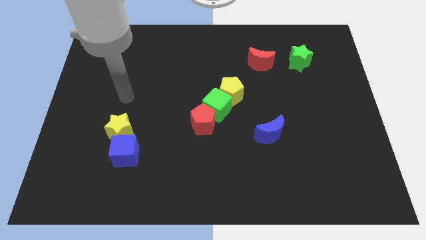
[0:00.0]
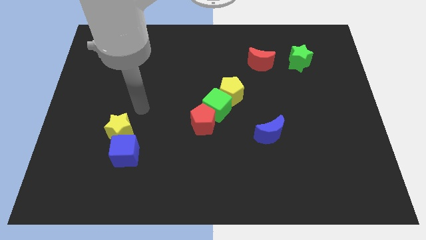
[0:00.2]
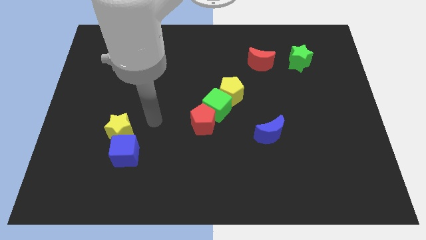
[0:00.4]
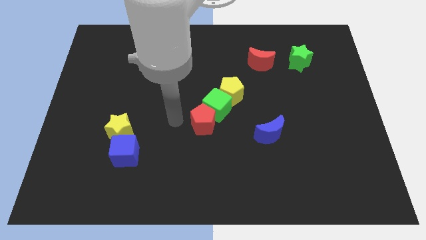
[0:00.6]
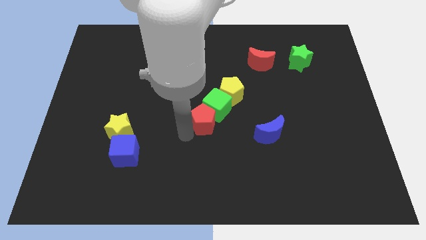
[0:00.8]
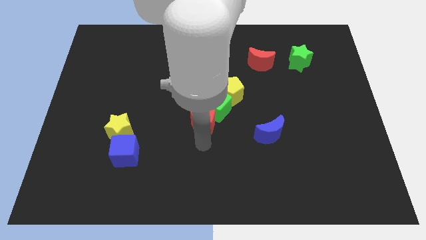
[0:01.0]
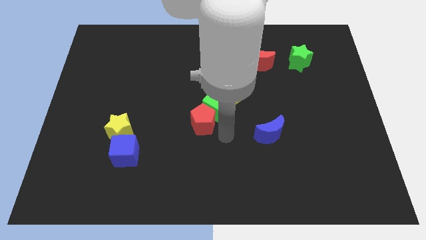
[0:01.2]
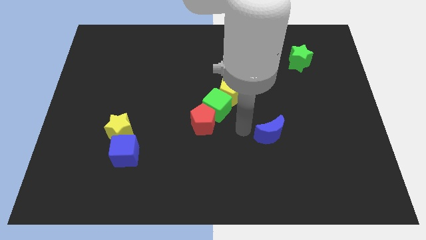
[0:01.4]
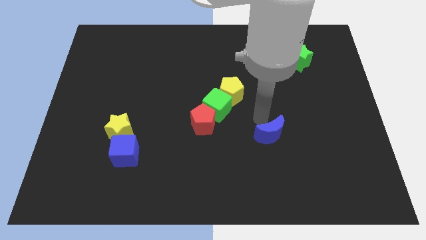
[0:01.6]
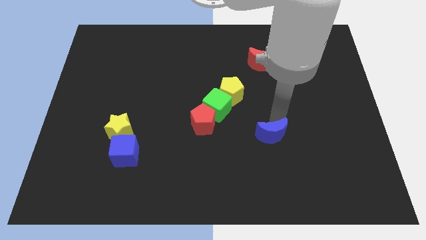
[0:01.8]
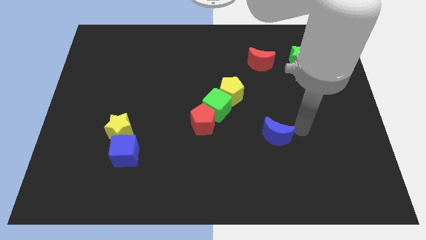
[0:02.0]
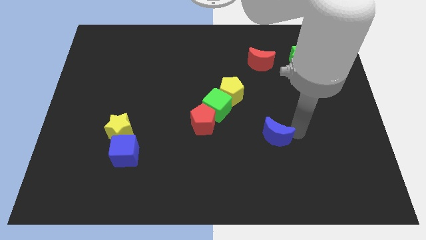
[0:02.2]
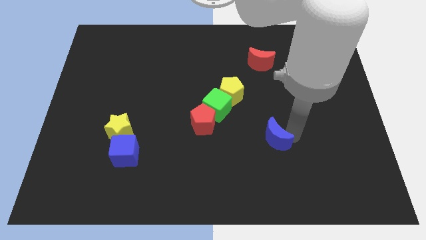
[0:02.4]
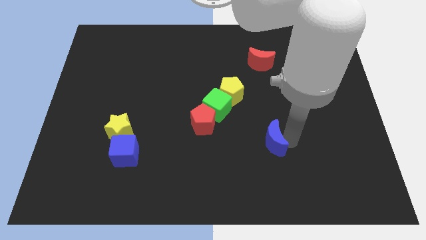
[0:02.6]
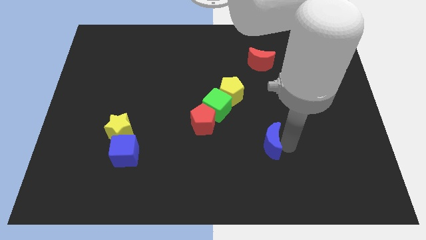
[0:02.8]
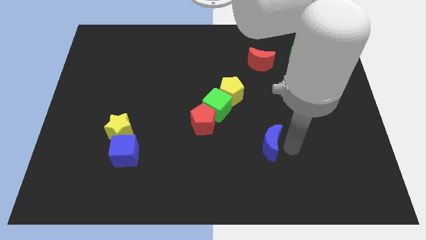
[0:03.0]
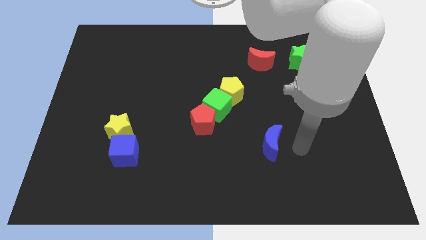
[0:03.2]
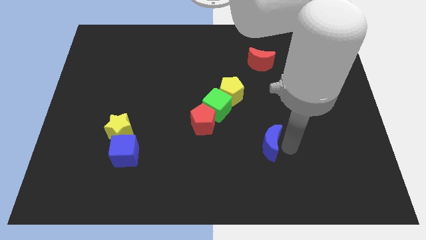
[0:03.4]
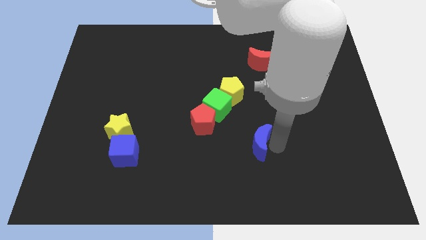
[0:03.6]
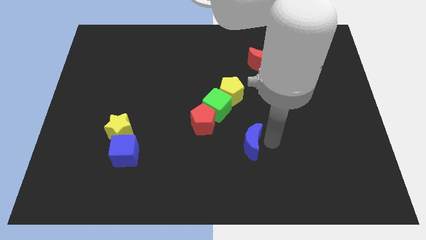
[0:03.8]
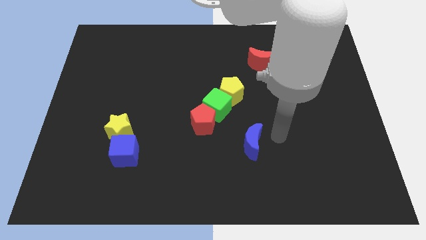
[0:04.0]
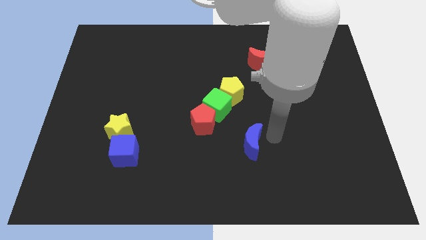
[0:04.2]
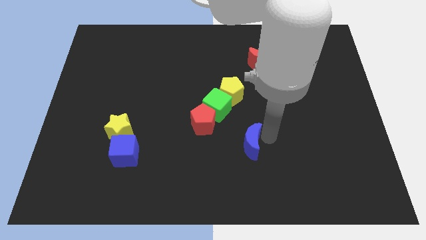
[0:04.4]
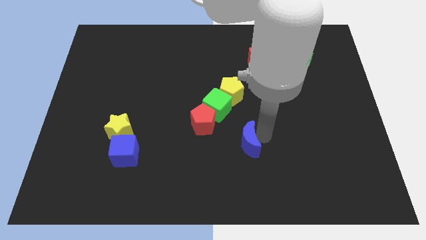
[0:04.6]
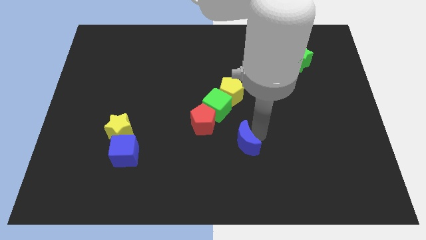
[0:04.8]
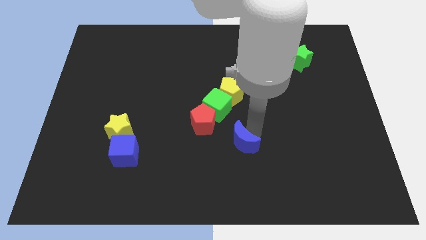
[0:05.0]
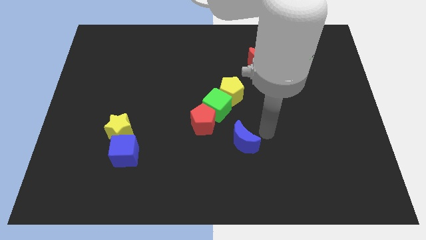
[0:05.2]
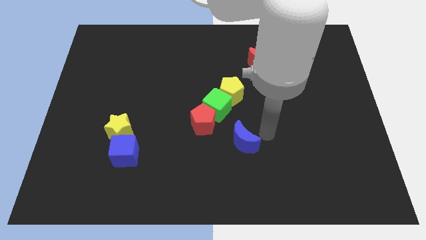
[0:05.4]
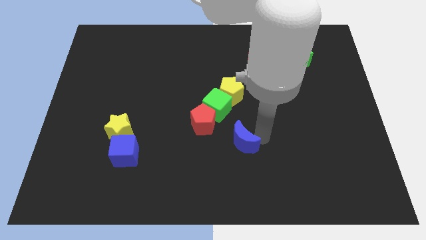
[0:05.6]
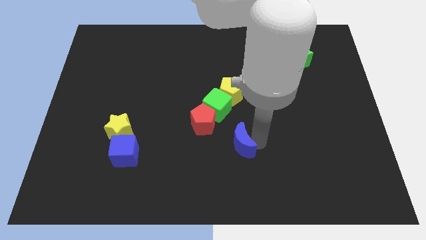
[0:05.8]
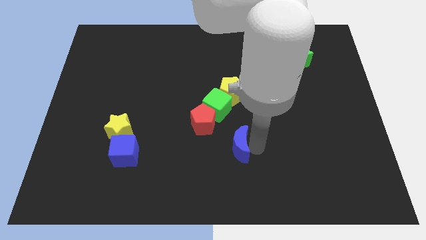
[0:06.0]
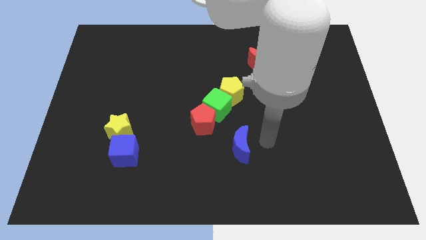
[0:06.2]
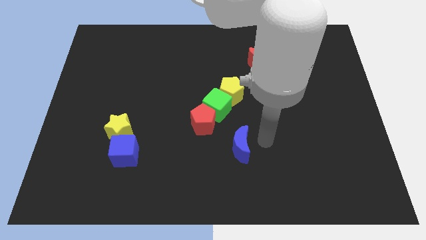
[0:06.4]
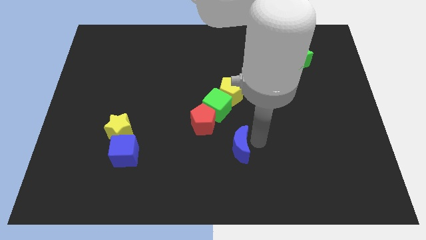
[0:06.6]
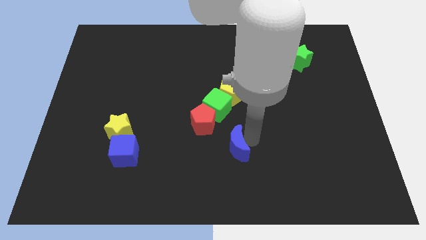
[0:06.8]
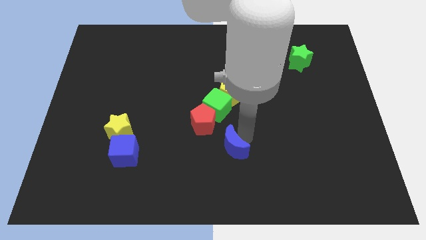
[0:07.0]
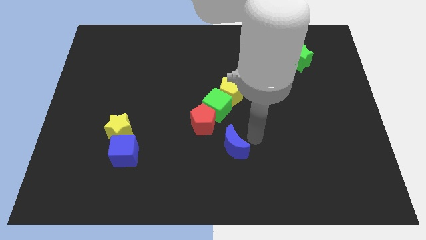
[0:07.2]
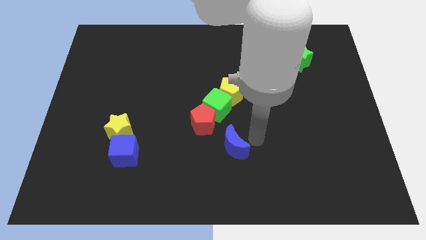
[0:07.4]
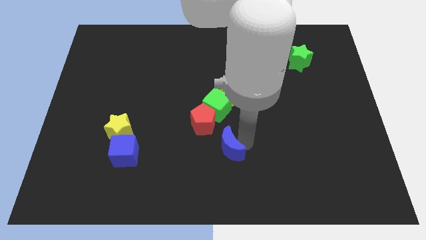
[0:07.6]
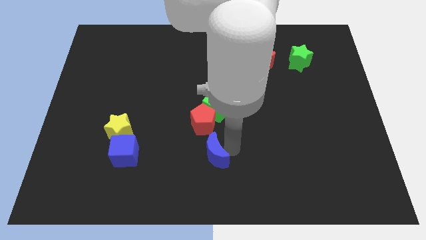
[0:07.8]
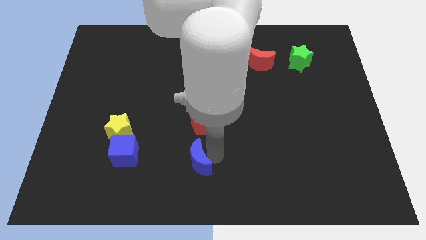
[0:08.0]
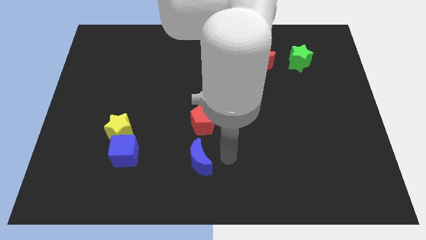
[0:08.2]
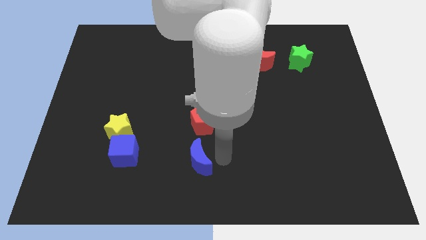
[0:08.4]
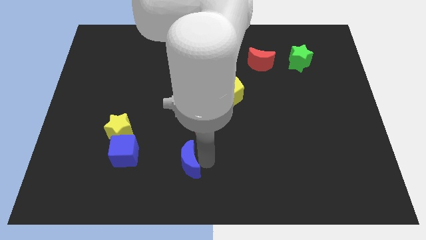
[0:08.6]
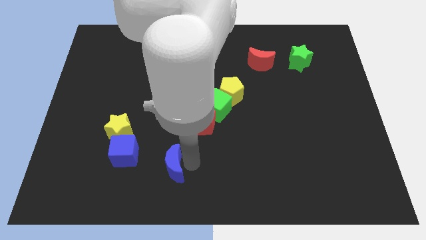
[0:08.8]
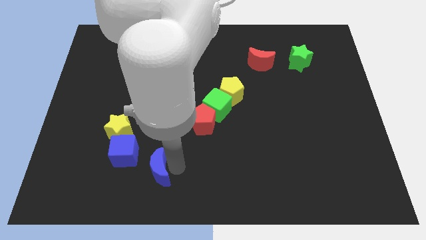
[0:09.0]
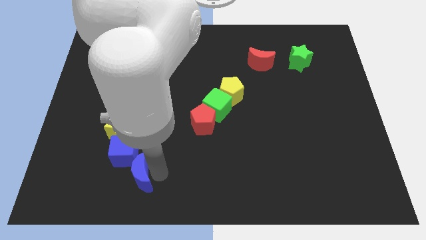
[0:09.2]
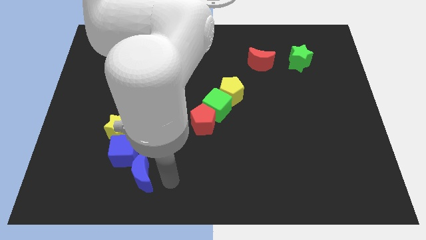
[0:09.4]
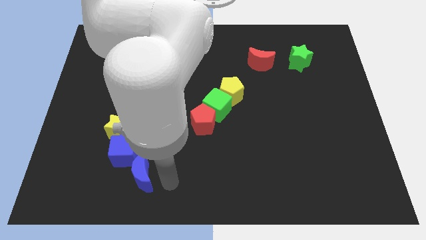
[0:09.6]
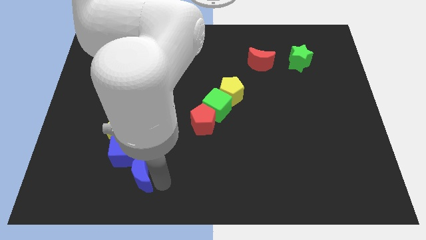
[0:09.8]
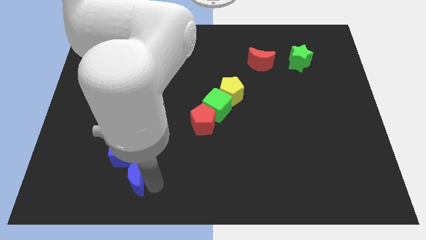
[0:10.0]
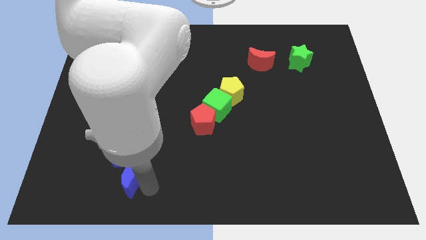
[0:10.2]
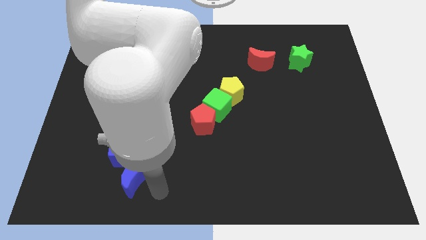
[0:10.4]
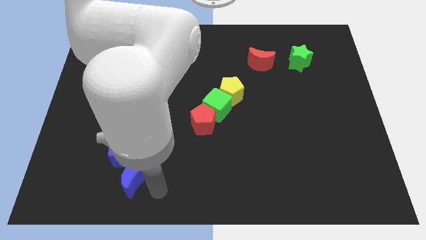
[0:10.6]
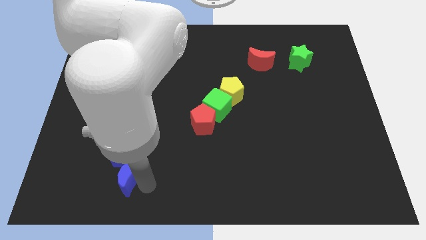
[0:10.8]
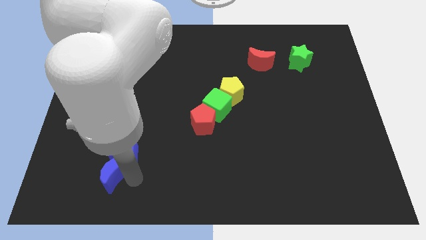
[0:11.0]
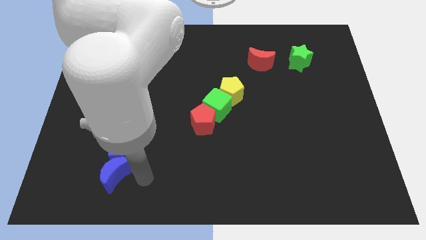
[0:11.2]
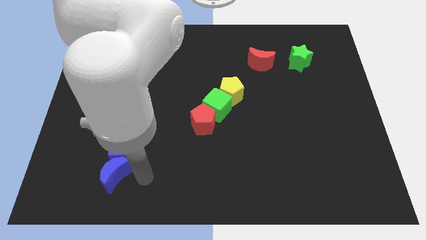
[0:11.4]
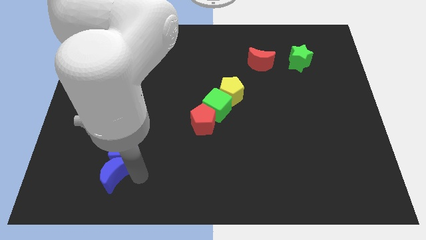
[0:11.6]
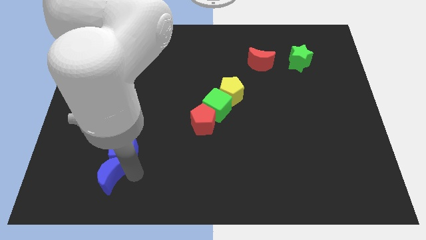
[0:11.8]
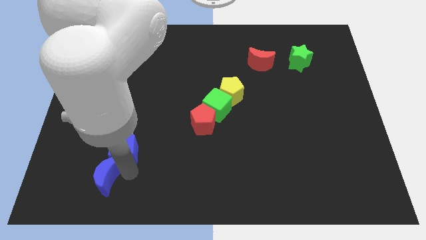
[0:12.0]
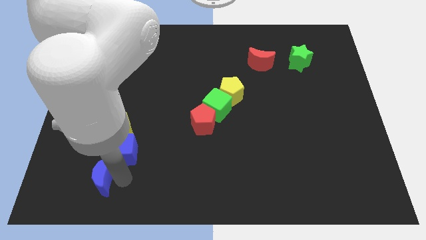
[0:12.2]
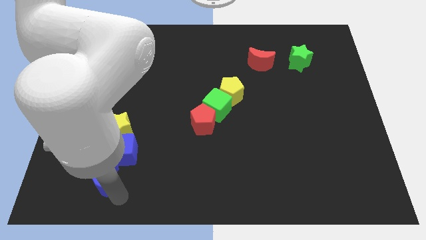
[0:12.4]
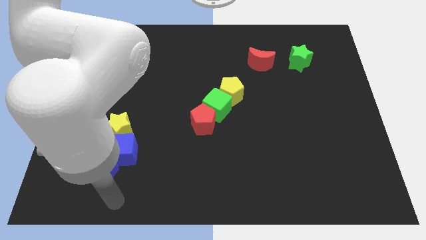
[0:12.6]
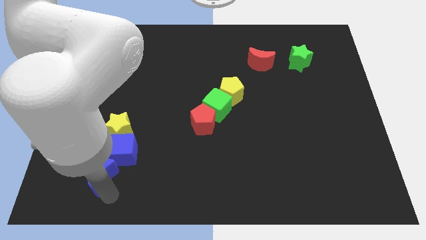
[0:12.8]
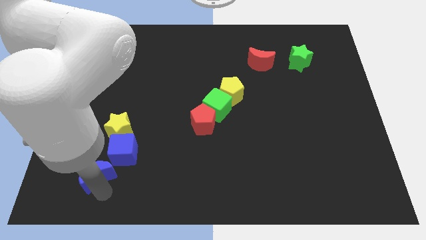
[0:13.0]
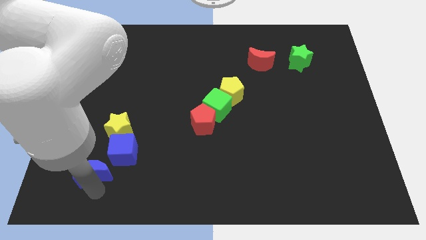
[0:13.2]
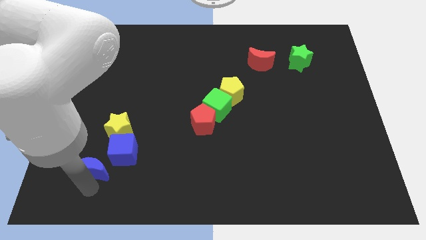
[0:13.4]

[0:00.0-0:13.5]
slide the blue moon diagonally down and to the left of the yellow star

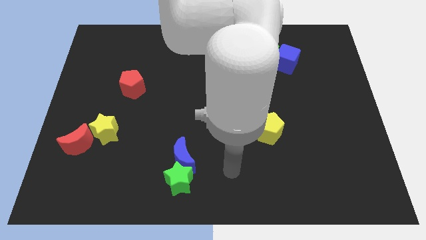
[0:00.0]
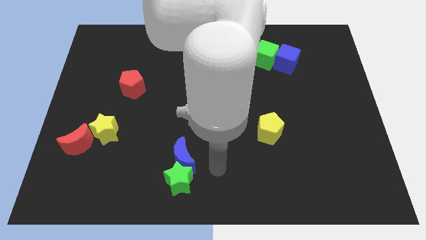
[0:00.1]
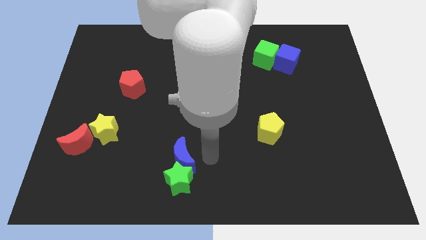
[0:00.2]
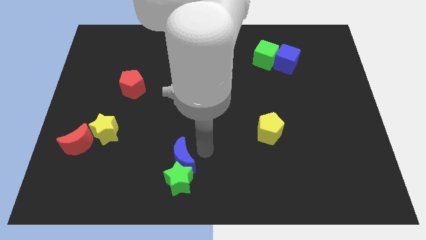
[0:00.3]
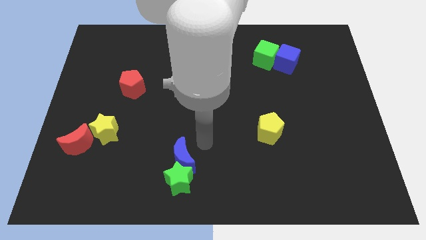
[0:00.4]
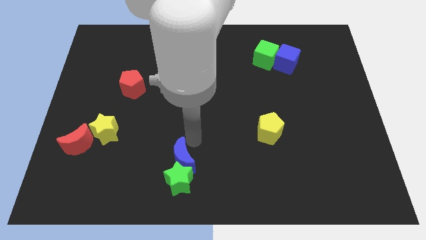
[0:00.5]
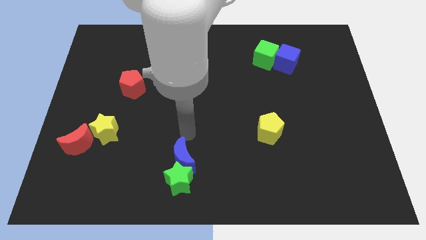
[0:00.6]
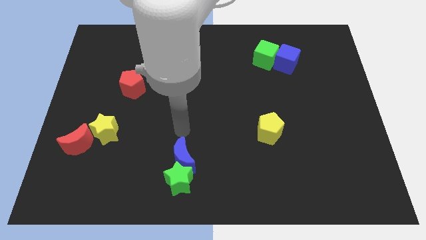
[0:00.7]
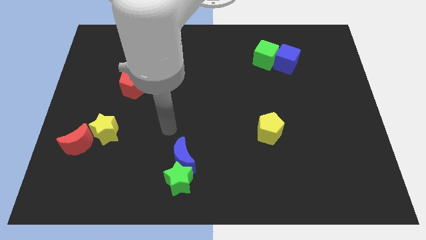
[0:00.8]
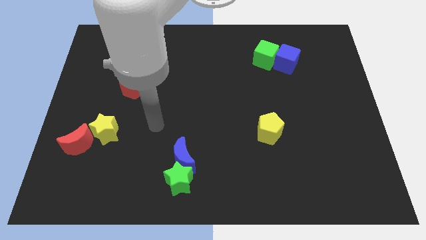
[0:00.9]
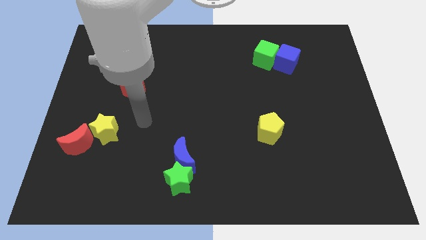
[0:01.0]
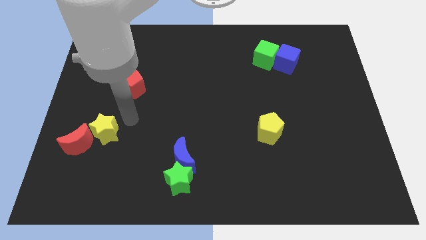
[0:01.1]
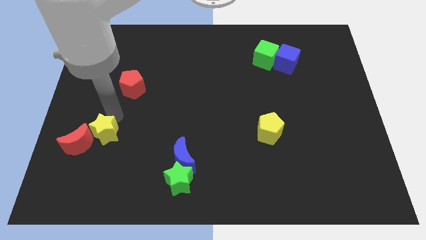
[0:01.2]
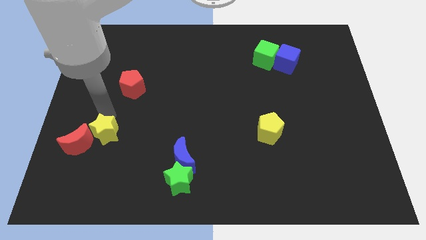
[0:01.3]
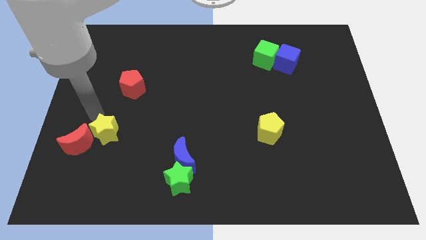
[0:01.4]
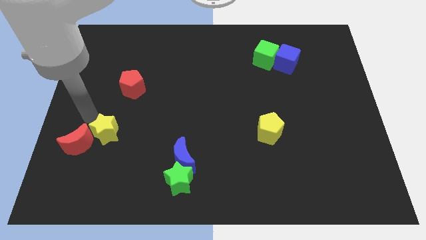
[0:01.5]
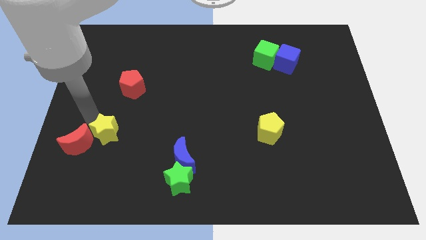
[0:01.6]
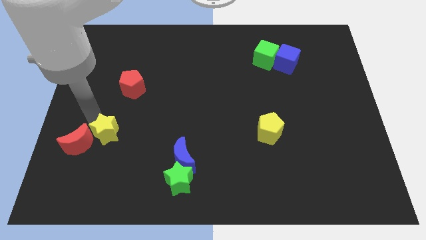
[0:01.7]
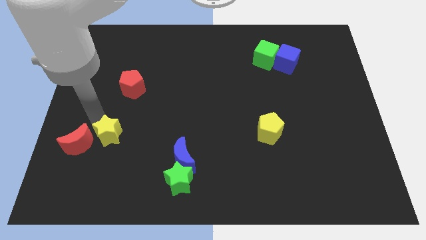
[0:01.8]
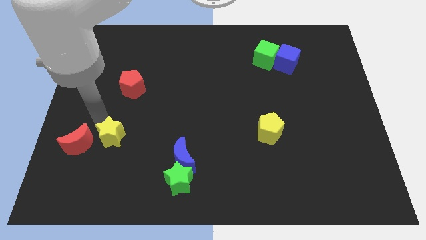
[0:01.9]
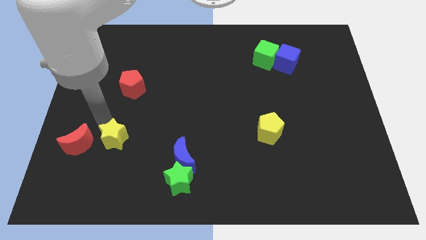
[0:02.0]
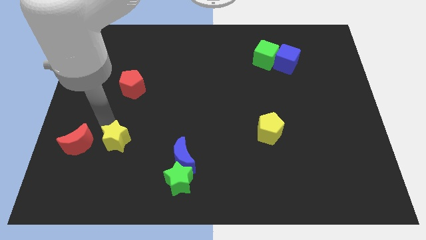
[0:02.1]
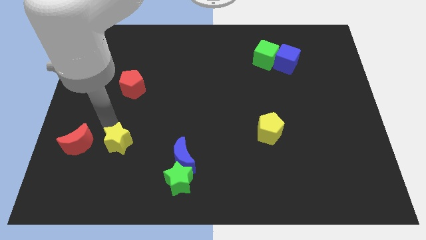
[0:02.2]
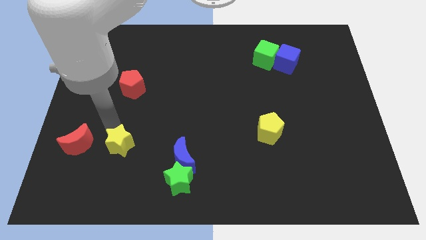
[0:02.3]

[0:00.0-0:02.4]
move the yellow star left of the blue moon
